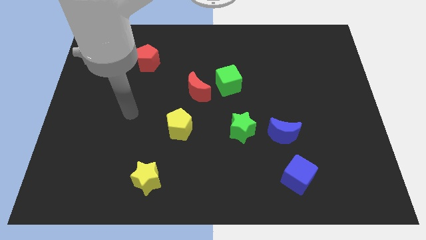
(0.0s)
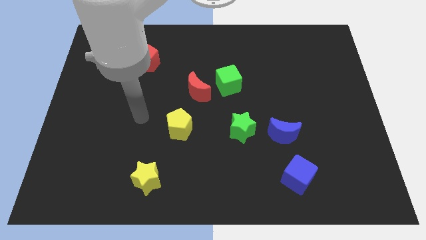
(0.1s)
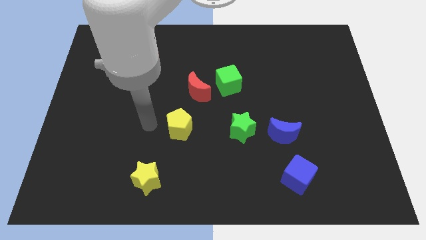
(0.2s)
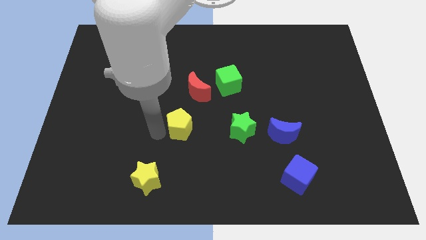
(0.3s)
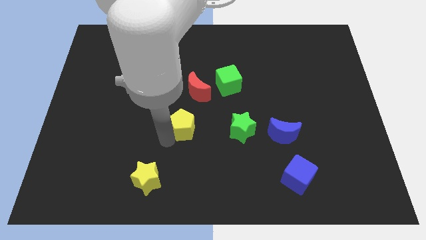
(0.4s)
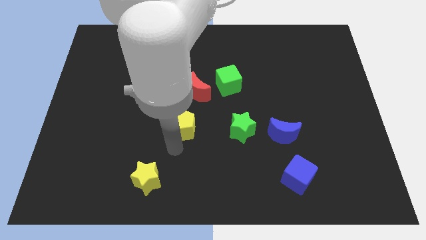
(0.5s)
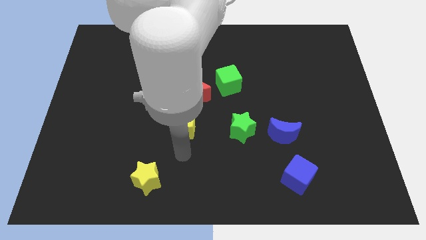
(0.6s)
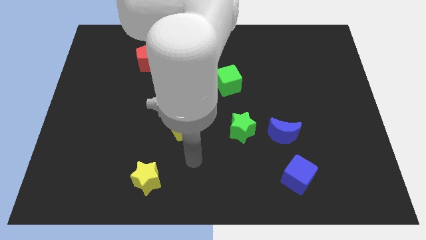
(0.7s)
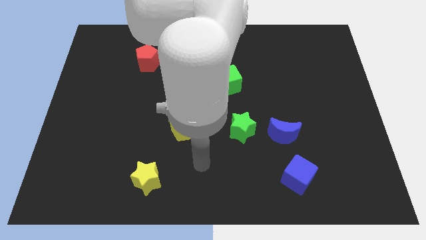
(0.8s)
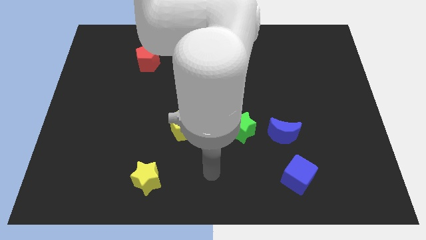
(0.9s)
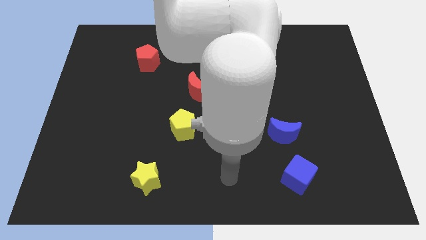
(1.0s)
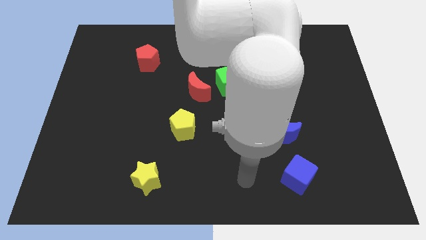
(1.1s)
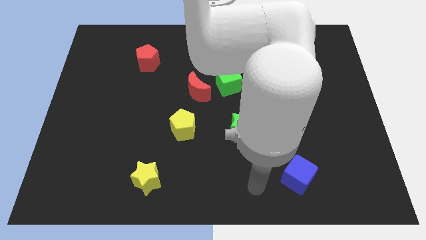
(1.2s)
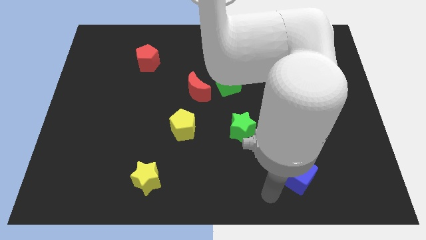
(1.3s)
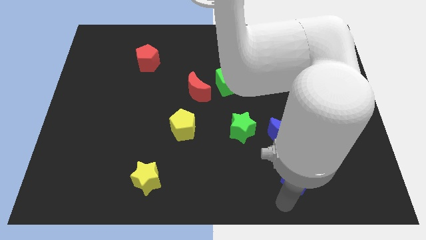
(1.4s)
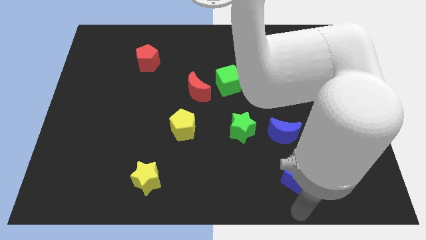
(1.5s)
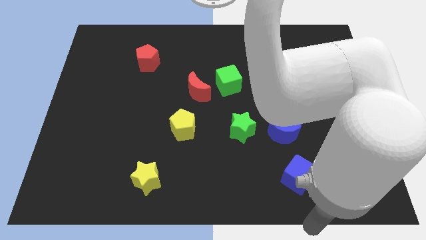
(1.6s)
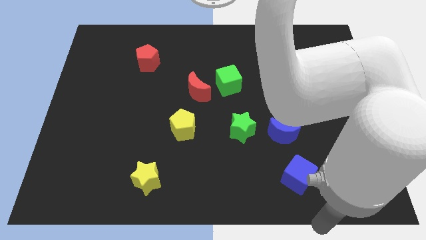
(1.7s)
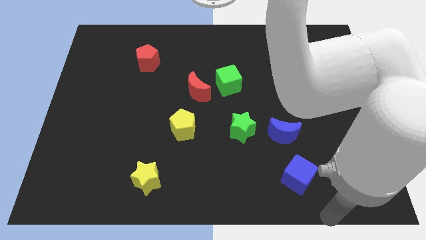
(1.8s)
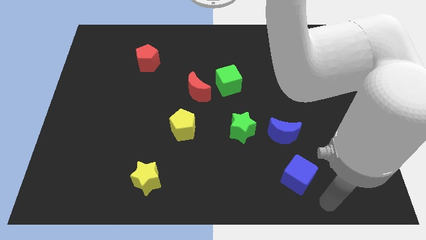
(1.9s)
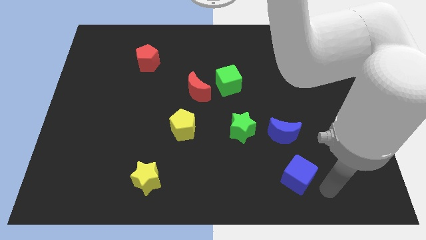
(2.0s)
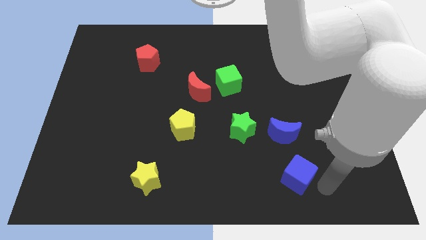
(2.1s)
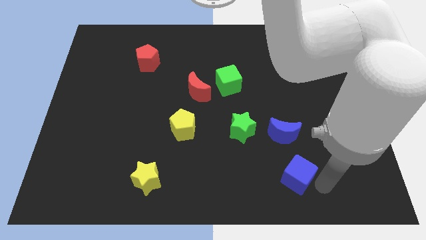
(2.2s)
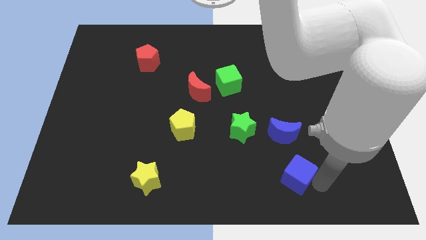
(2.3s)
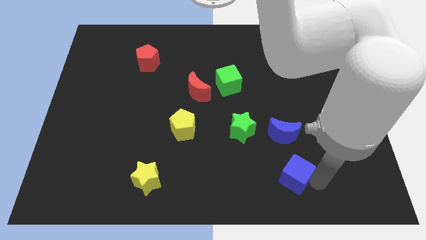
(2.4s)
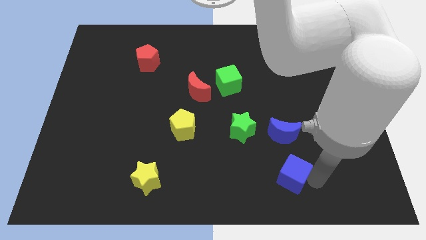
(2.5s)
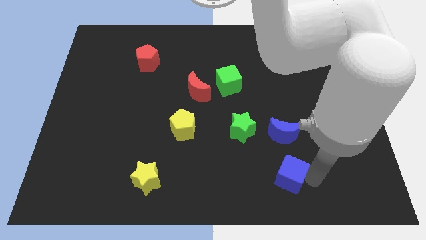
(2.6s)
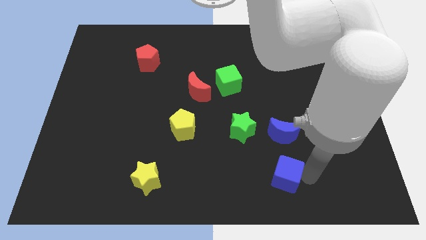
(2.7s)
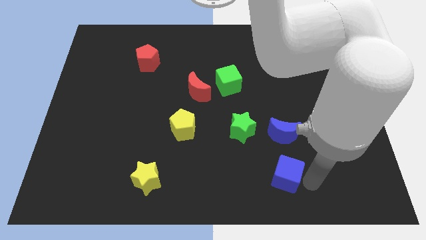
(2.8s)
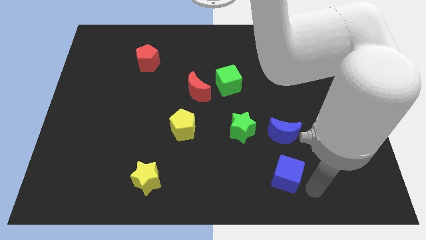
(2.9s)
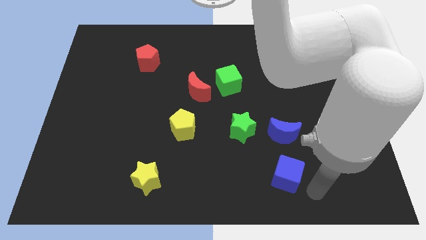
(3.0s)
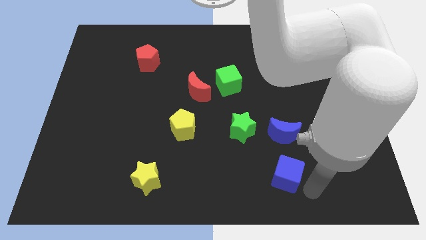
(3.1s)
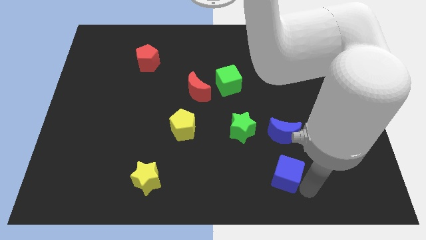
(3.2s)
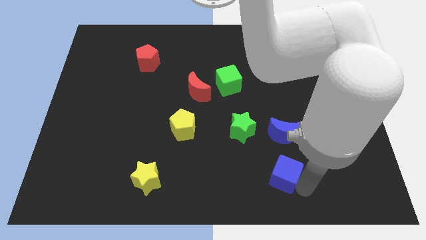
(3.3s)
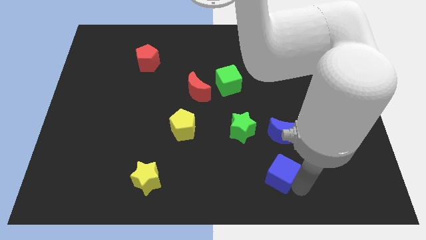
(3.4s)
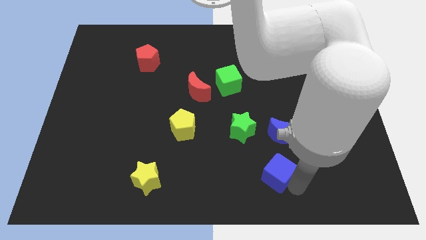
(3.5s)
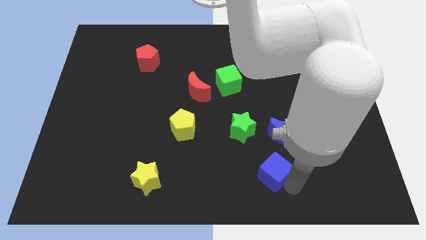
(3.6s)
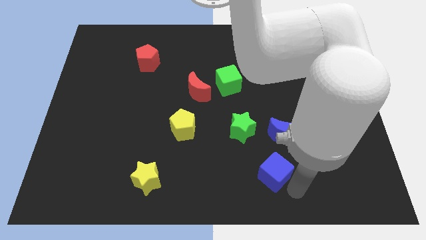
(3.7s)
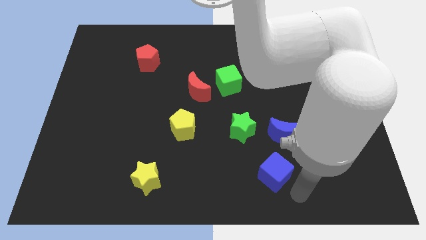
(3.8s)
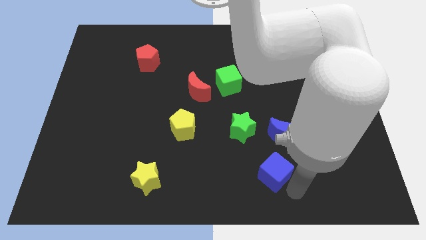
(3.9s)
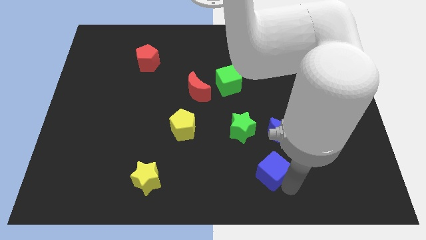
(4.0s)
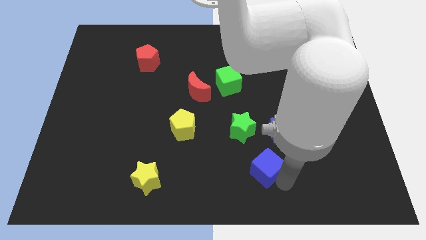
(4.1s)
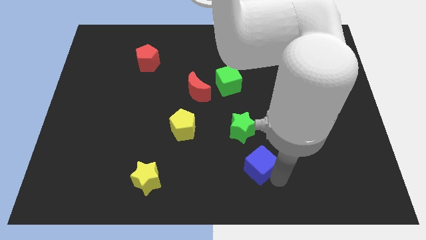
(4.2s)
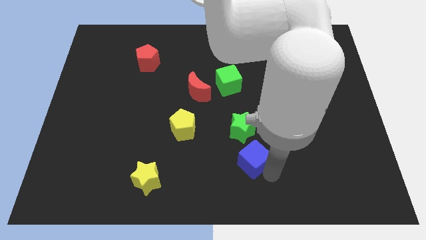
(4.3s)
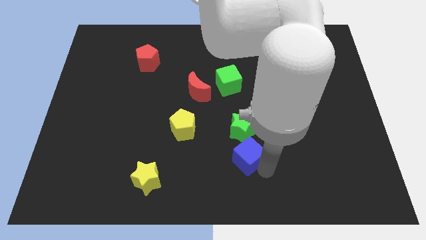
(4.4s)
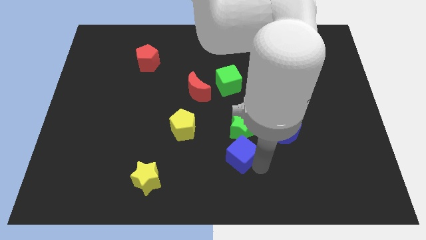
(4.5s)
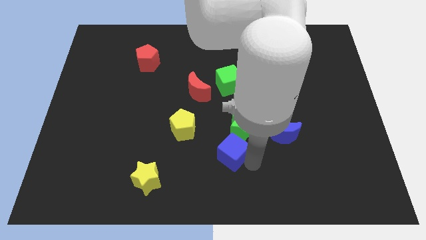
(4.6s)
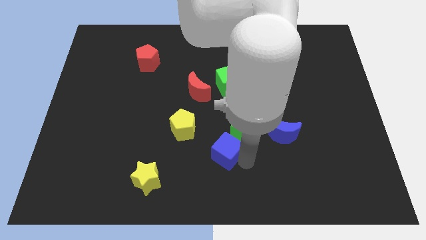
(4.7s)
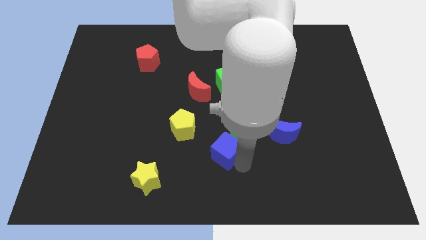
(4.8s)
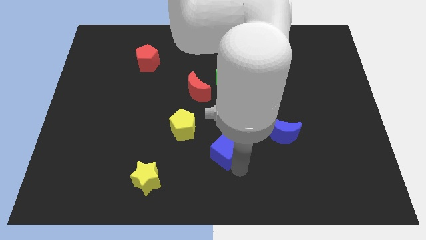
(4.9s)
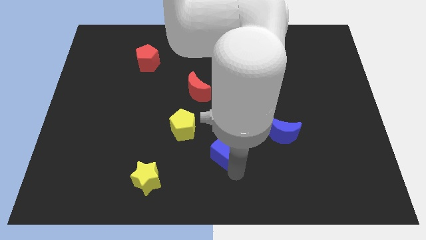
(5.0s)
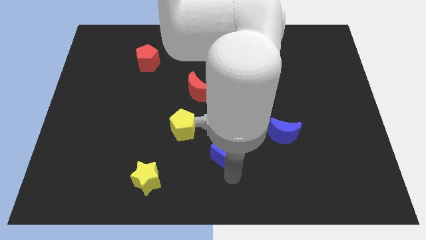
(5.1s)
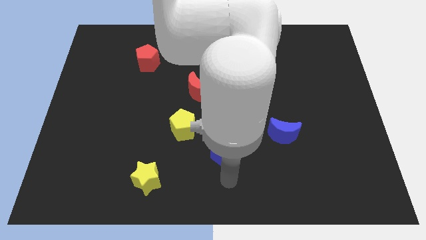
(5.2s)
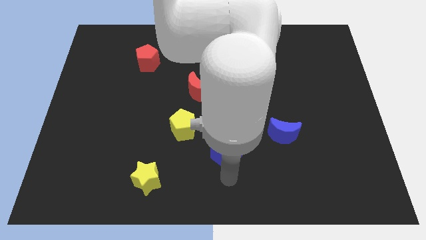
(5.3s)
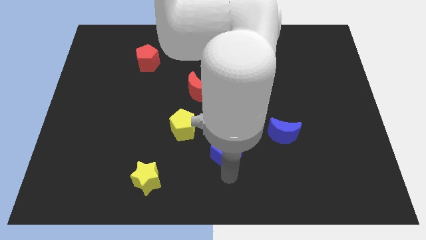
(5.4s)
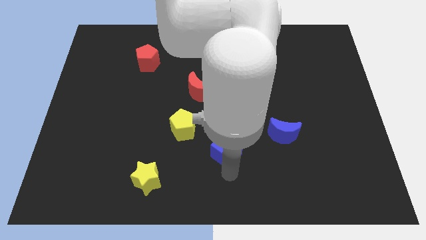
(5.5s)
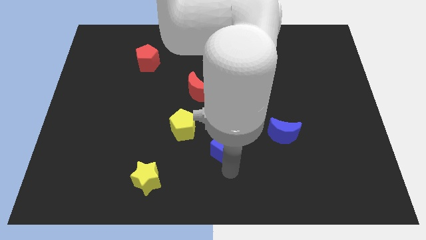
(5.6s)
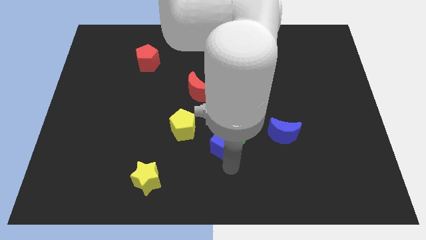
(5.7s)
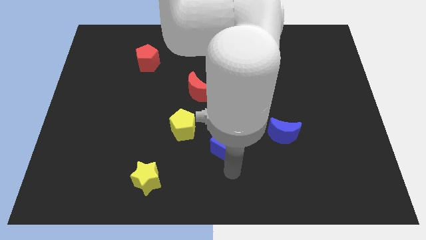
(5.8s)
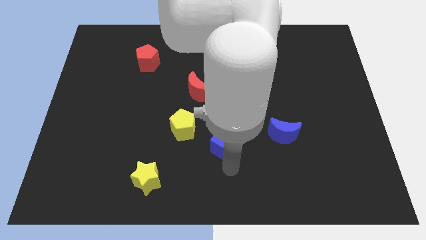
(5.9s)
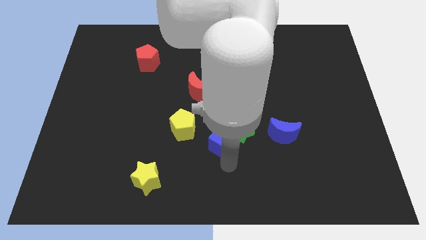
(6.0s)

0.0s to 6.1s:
slide the blue cube to the center of the board

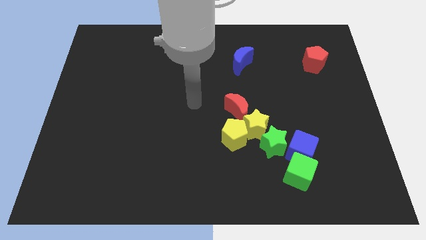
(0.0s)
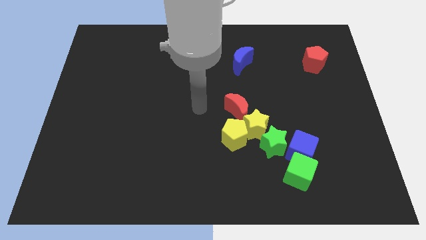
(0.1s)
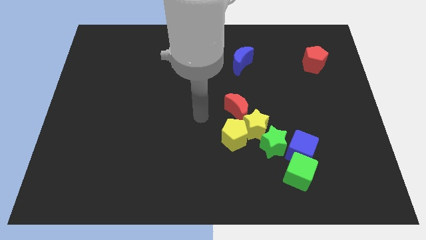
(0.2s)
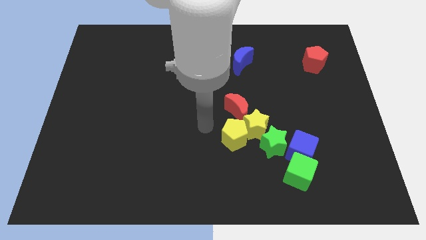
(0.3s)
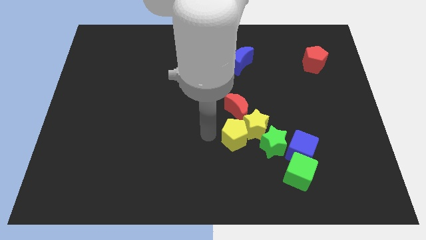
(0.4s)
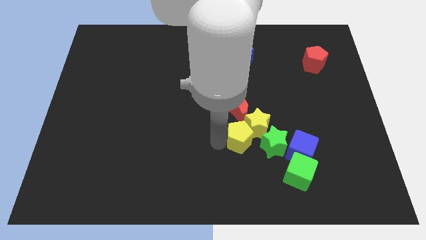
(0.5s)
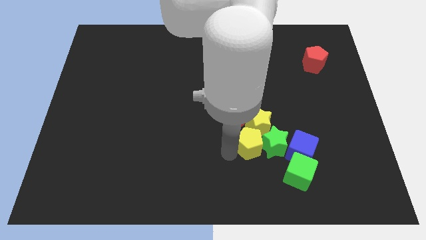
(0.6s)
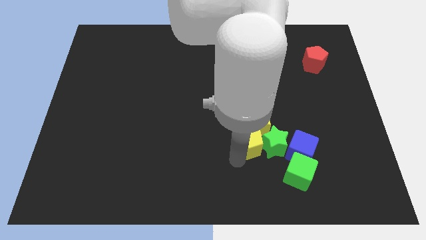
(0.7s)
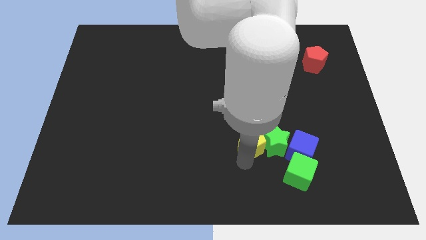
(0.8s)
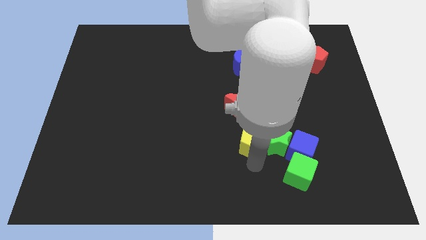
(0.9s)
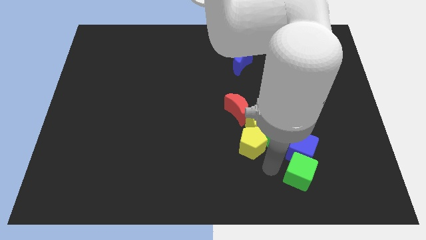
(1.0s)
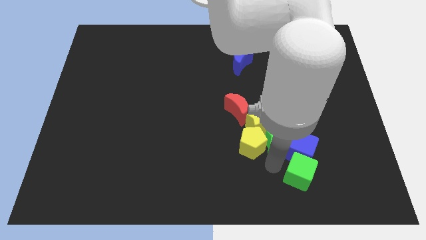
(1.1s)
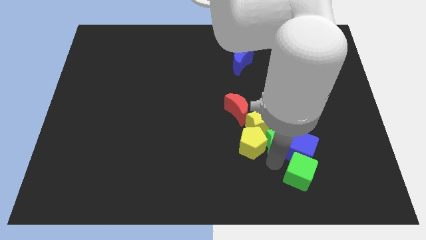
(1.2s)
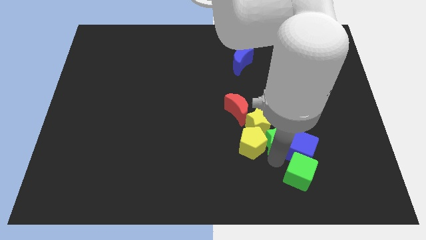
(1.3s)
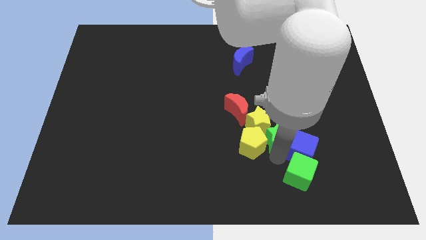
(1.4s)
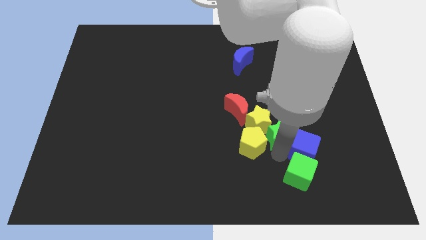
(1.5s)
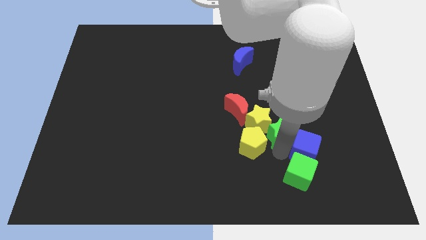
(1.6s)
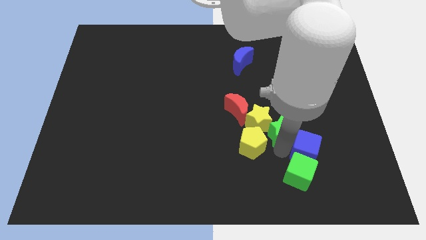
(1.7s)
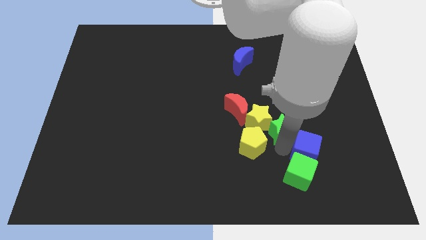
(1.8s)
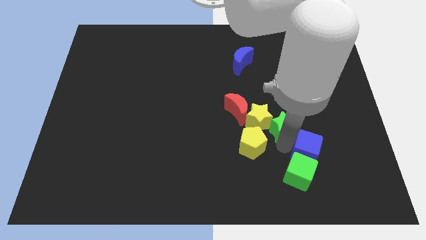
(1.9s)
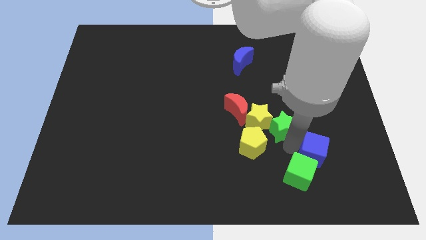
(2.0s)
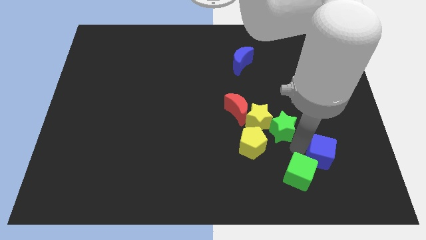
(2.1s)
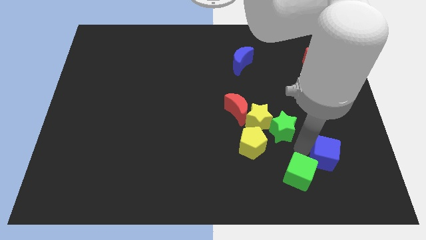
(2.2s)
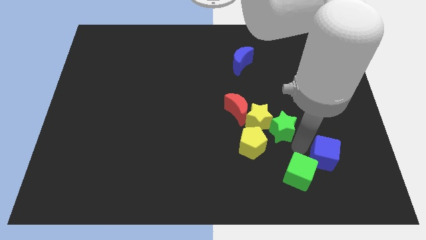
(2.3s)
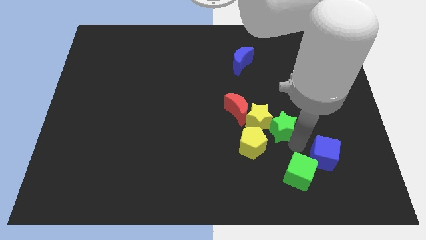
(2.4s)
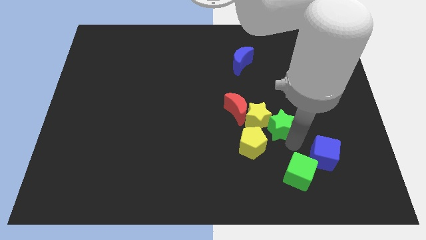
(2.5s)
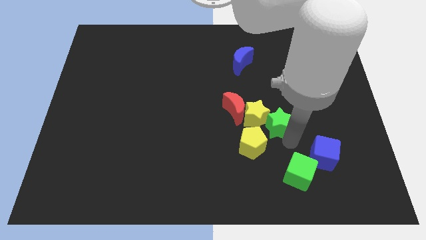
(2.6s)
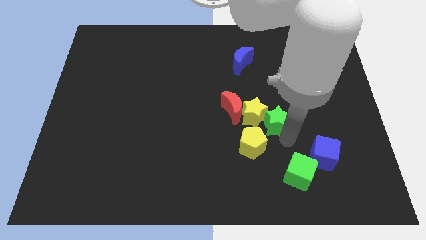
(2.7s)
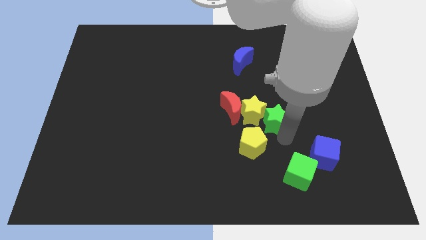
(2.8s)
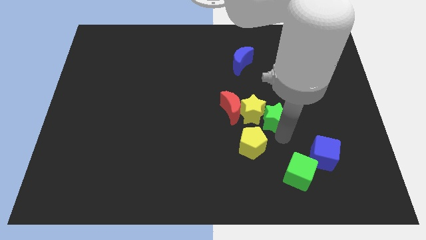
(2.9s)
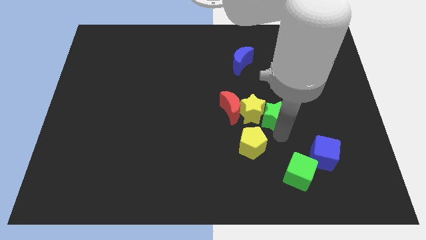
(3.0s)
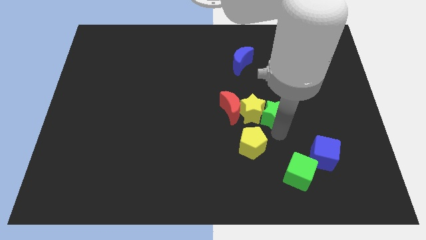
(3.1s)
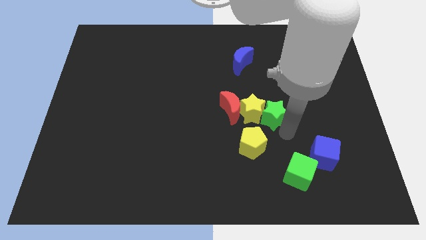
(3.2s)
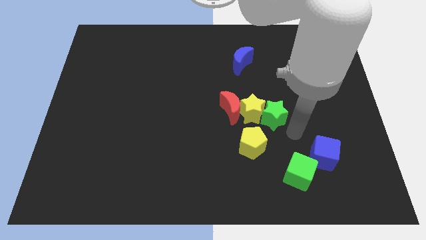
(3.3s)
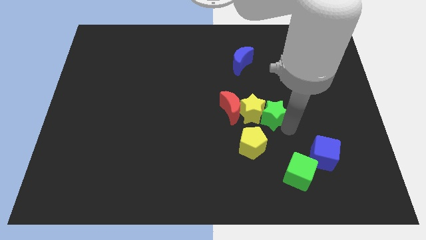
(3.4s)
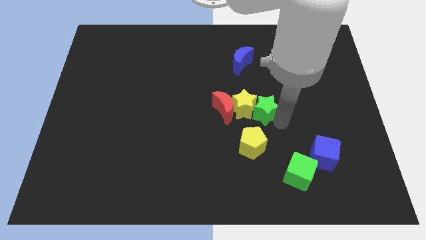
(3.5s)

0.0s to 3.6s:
push the green star to the center
